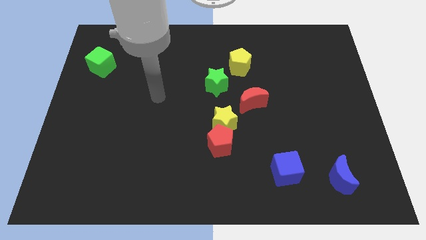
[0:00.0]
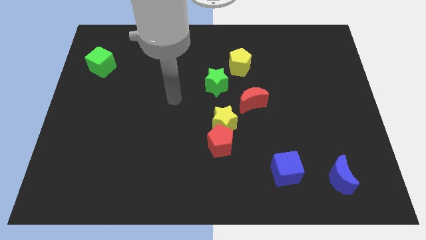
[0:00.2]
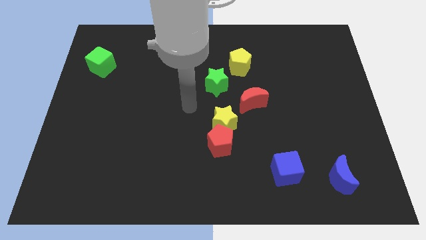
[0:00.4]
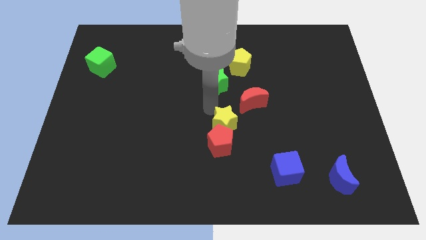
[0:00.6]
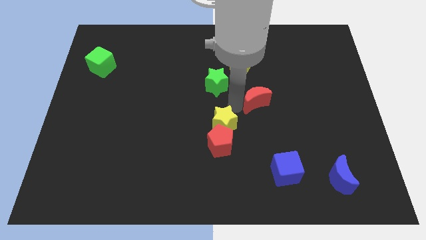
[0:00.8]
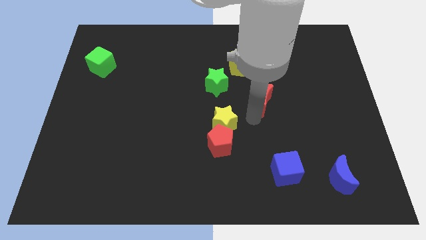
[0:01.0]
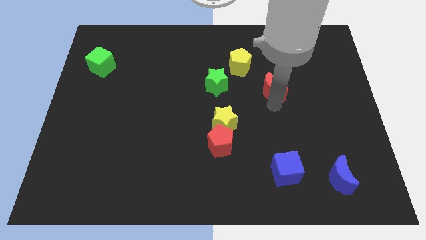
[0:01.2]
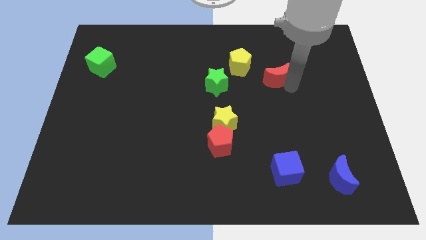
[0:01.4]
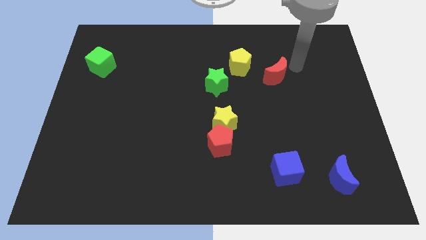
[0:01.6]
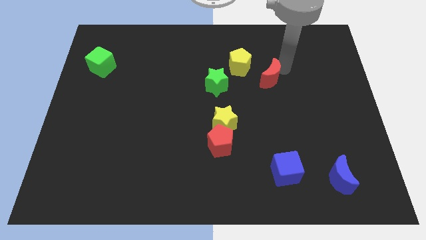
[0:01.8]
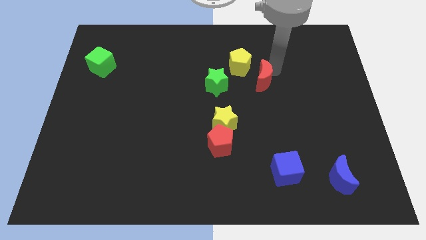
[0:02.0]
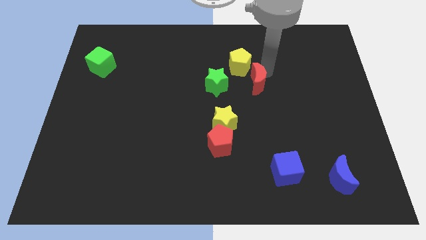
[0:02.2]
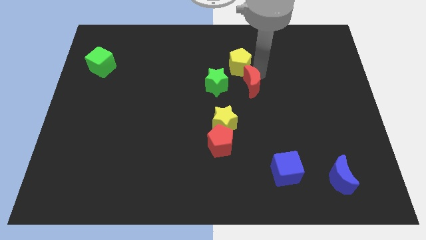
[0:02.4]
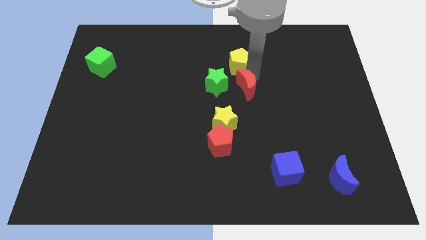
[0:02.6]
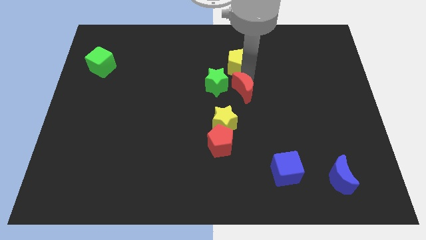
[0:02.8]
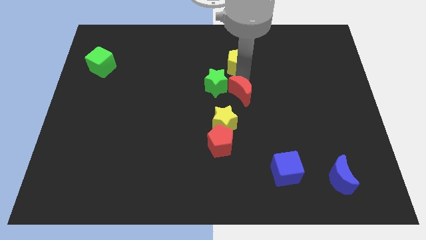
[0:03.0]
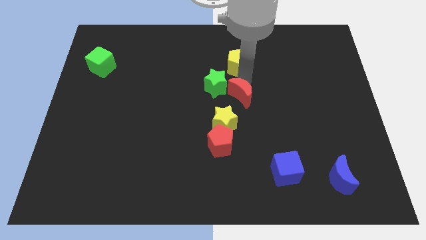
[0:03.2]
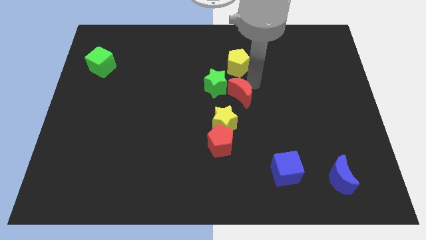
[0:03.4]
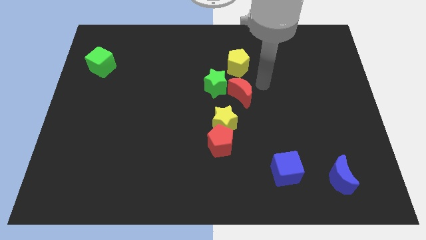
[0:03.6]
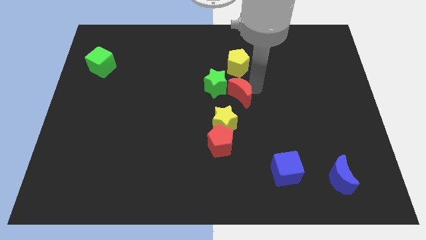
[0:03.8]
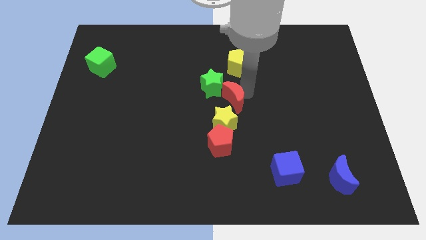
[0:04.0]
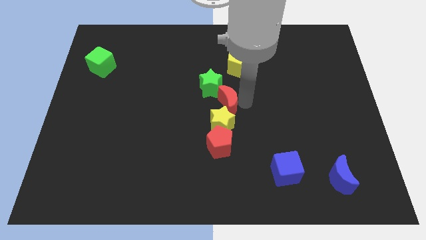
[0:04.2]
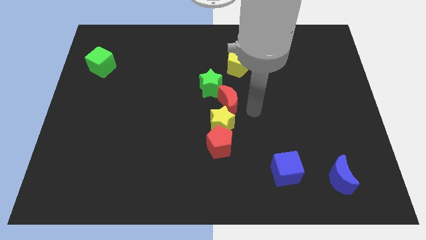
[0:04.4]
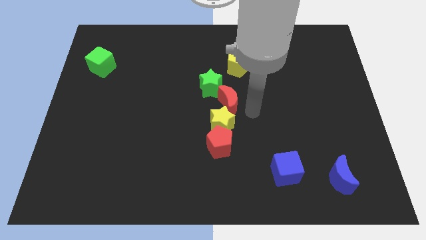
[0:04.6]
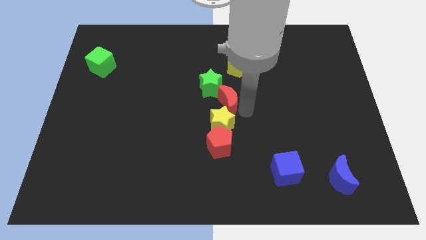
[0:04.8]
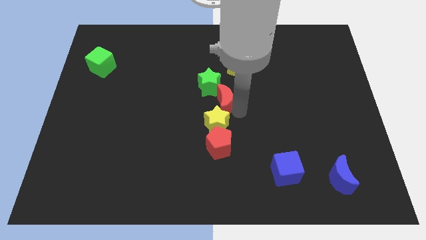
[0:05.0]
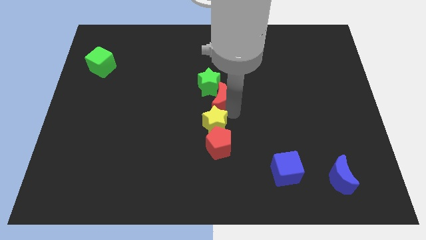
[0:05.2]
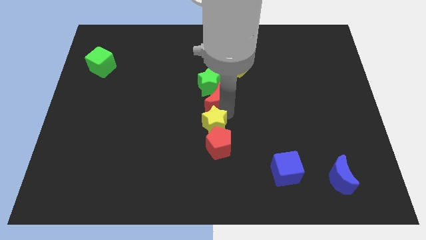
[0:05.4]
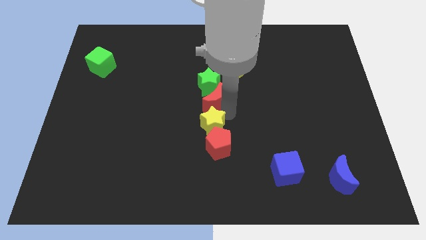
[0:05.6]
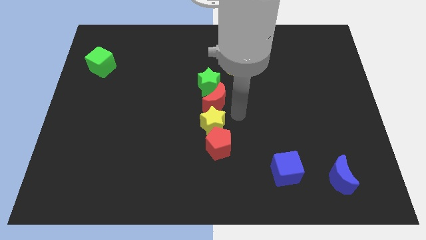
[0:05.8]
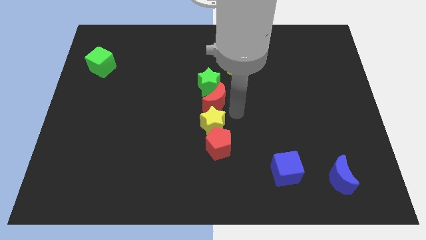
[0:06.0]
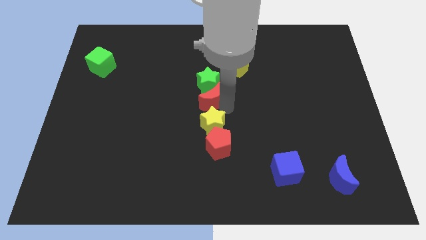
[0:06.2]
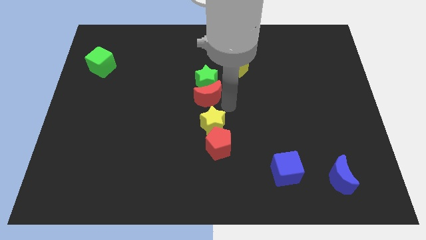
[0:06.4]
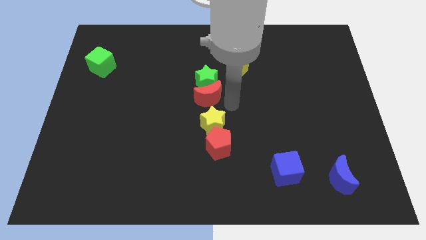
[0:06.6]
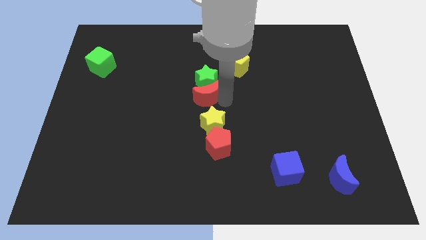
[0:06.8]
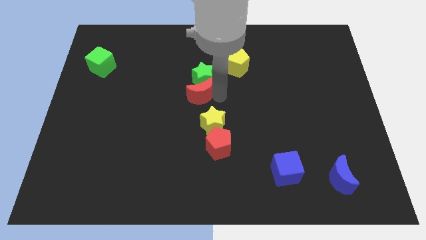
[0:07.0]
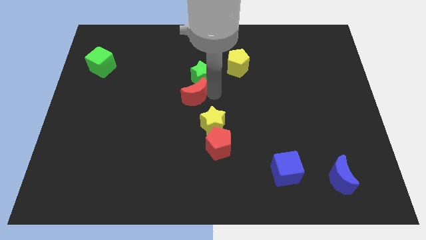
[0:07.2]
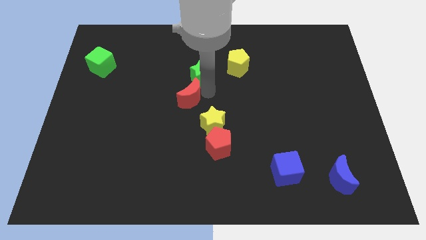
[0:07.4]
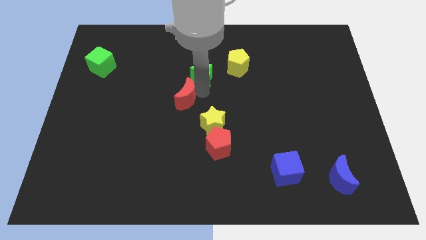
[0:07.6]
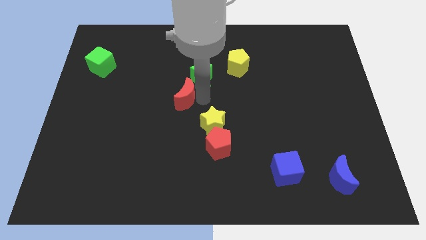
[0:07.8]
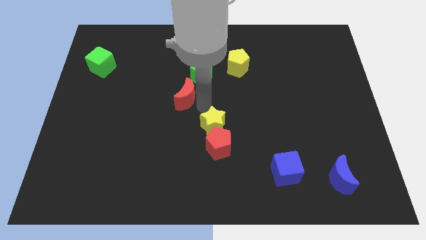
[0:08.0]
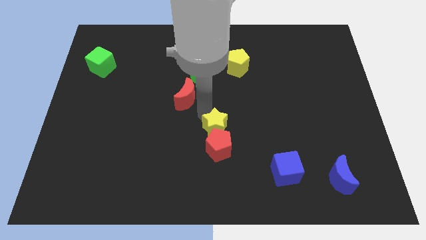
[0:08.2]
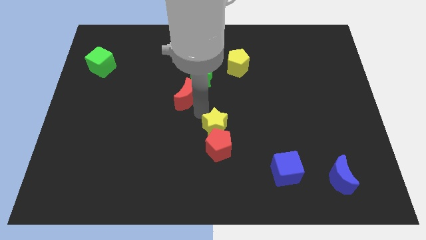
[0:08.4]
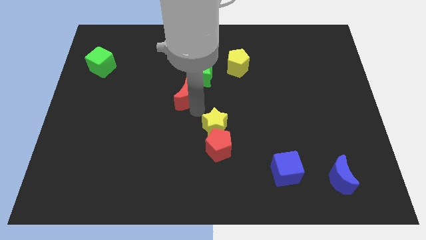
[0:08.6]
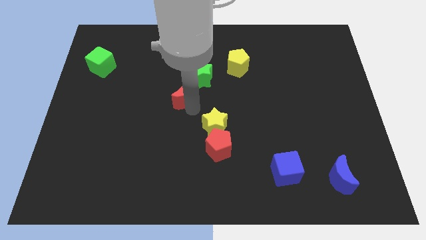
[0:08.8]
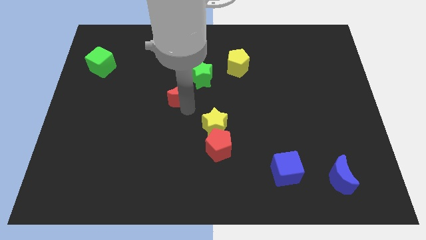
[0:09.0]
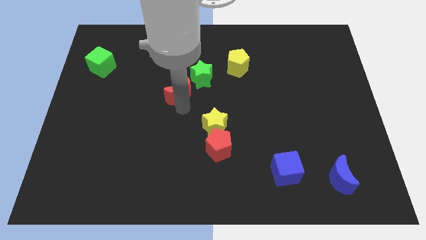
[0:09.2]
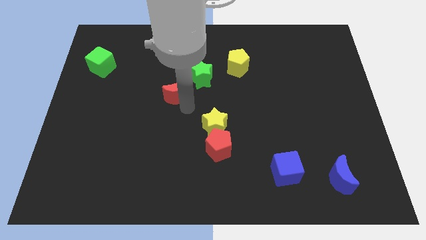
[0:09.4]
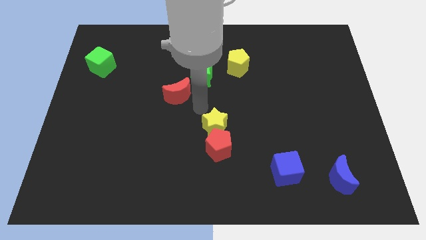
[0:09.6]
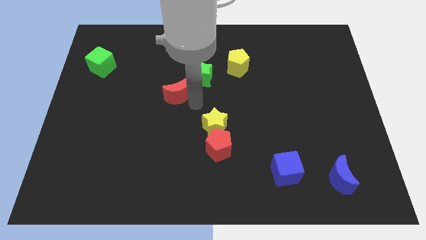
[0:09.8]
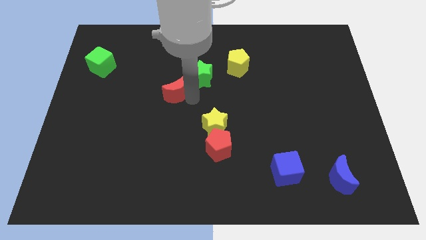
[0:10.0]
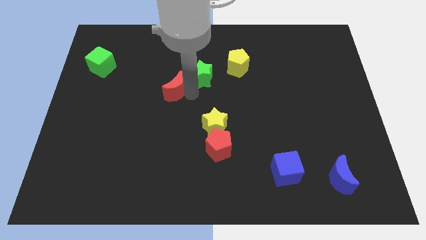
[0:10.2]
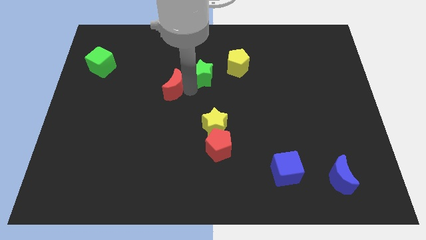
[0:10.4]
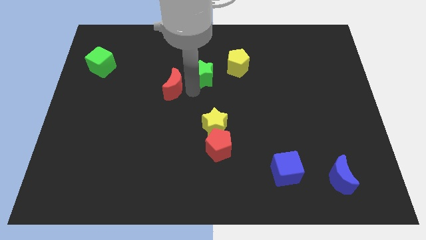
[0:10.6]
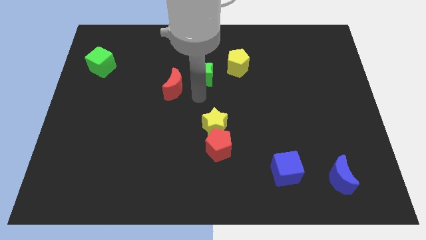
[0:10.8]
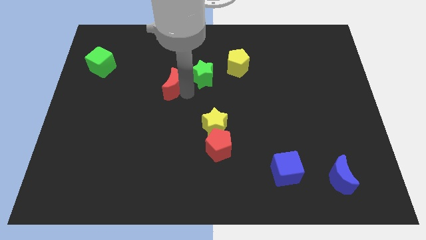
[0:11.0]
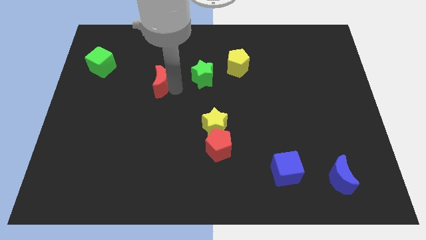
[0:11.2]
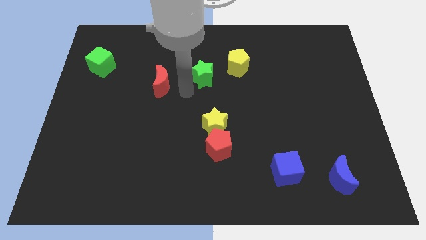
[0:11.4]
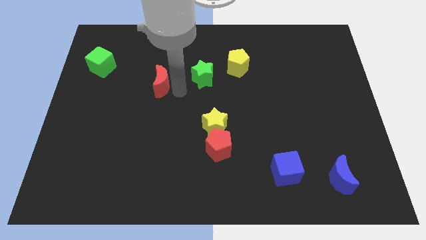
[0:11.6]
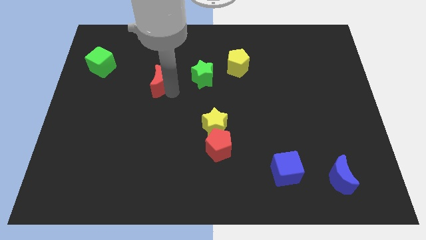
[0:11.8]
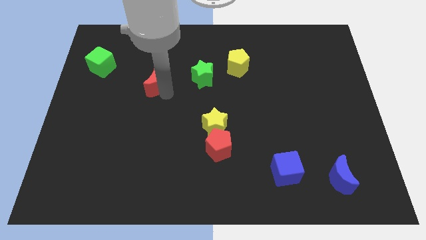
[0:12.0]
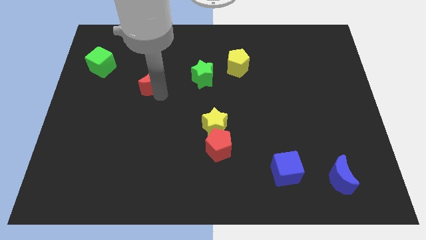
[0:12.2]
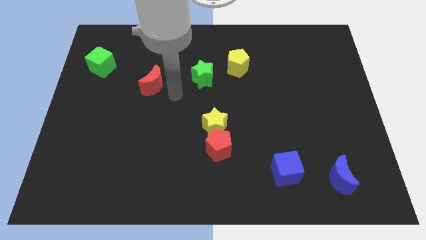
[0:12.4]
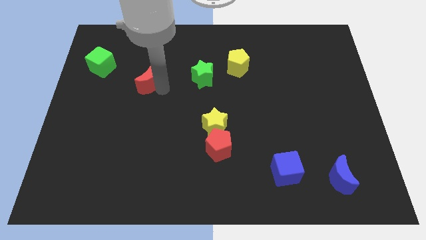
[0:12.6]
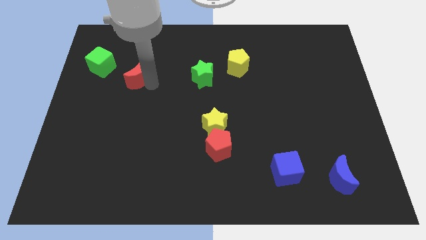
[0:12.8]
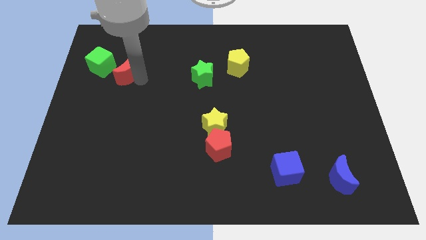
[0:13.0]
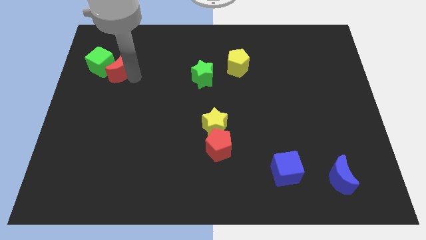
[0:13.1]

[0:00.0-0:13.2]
push the red moon towards the green cube
